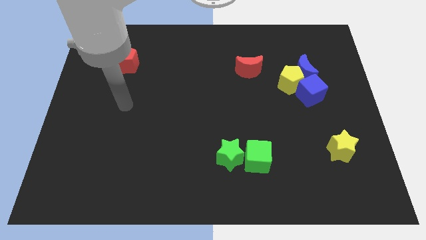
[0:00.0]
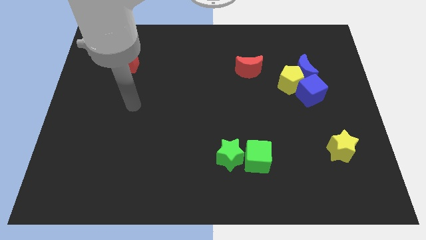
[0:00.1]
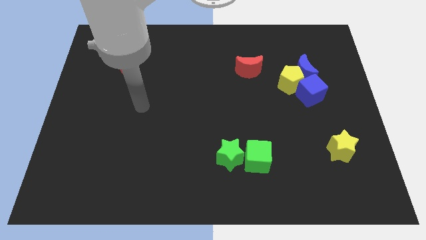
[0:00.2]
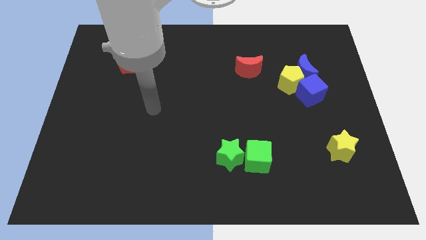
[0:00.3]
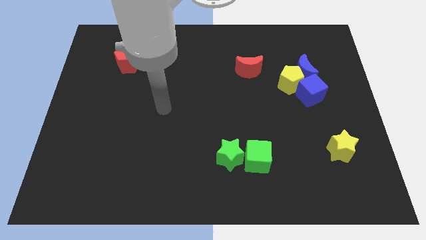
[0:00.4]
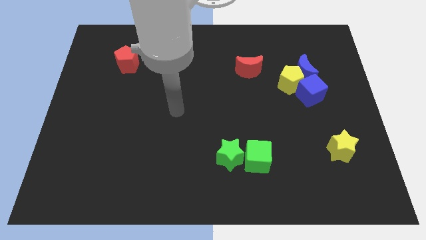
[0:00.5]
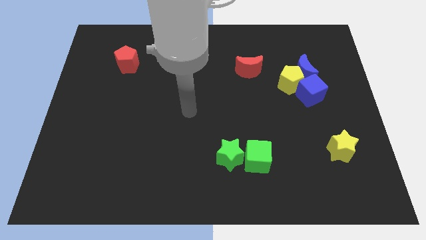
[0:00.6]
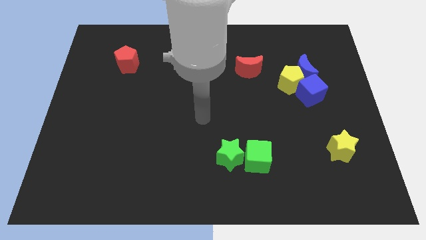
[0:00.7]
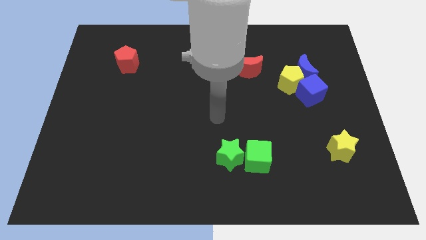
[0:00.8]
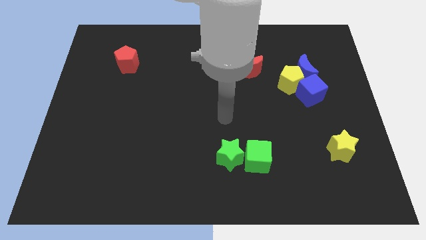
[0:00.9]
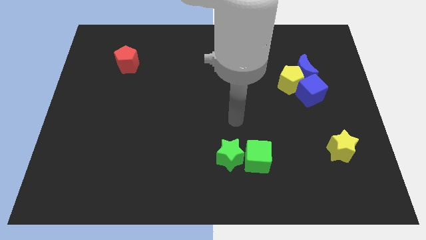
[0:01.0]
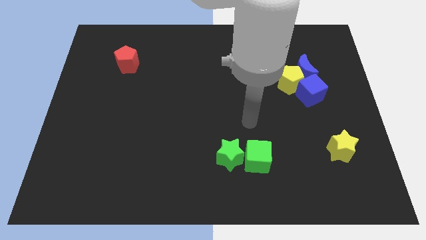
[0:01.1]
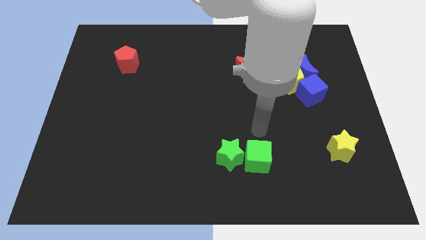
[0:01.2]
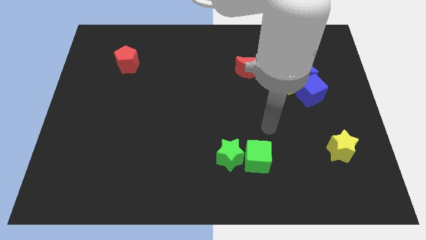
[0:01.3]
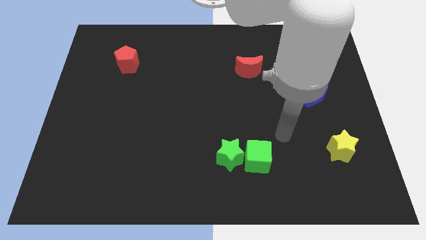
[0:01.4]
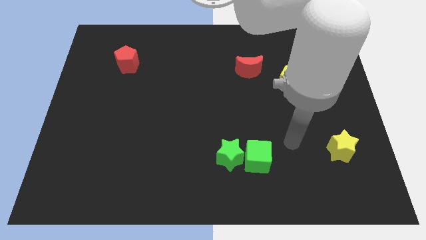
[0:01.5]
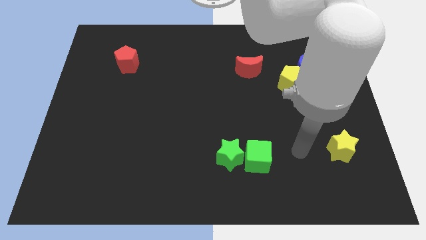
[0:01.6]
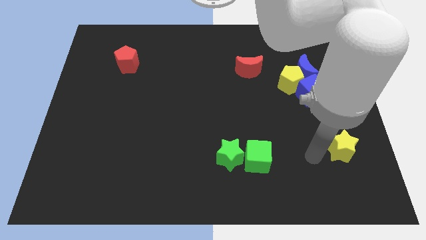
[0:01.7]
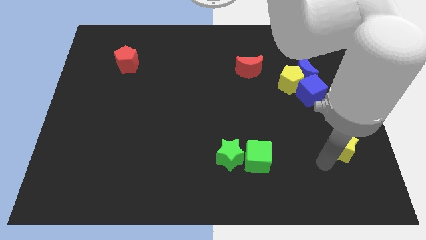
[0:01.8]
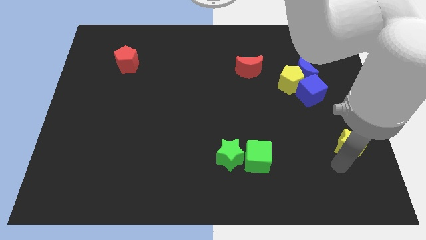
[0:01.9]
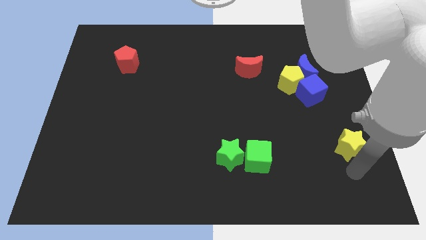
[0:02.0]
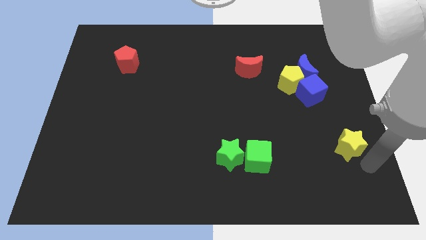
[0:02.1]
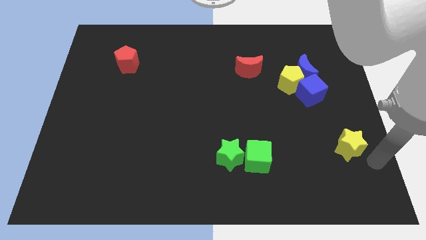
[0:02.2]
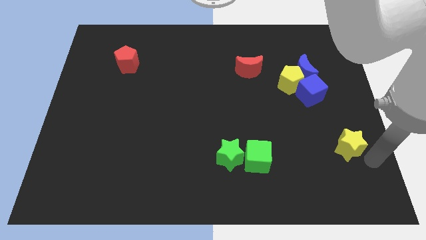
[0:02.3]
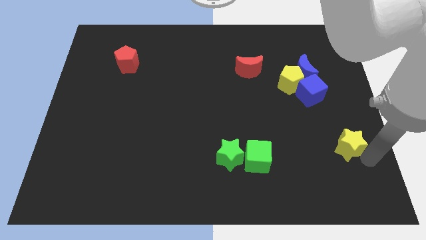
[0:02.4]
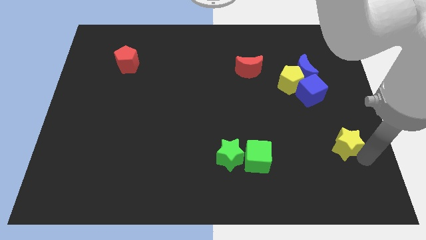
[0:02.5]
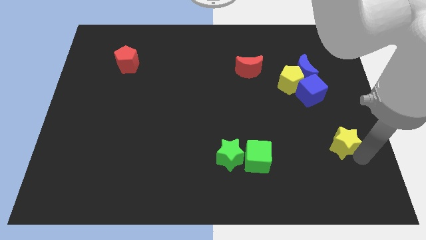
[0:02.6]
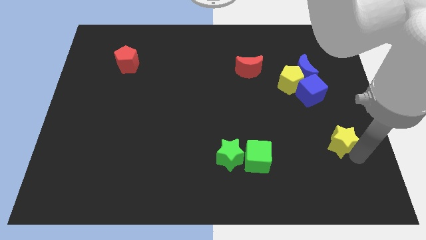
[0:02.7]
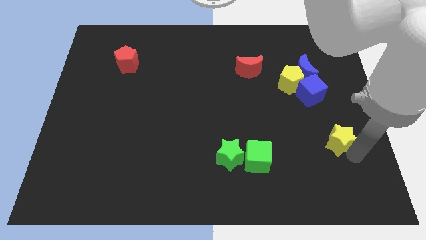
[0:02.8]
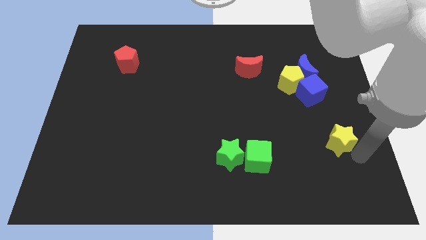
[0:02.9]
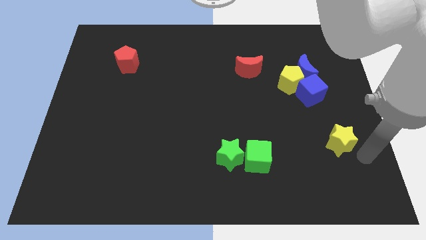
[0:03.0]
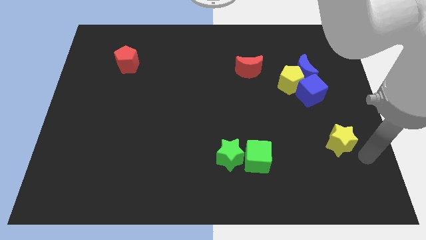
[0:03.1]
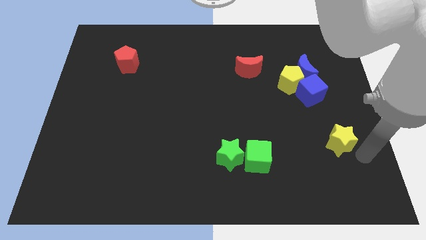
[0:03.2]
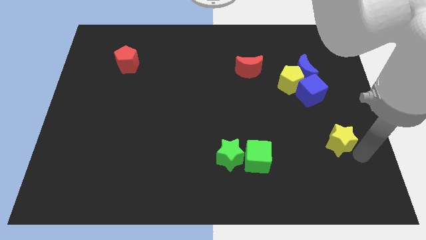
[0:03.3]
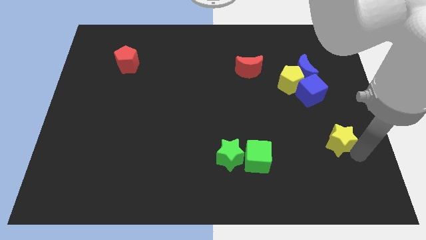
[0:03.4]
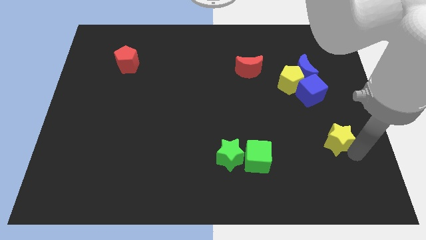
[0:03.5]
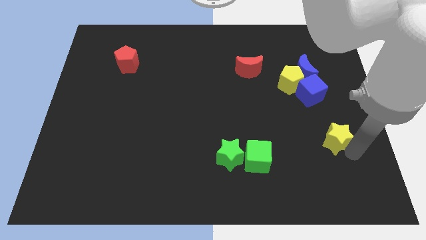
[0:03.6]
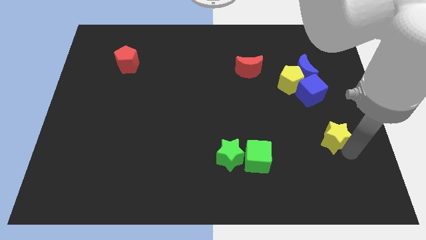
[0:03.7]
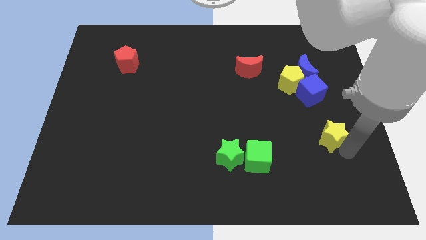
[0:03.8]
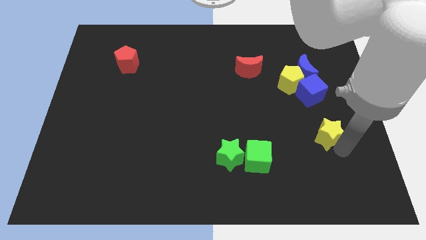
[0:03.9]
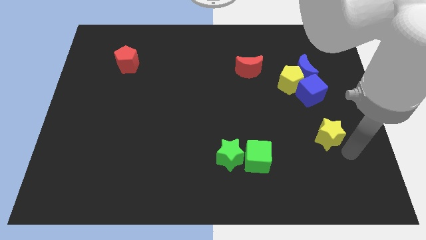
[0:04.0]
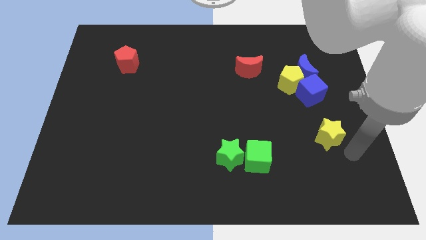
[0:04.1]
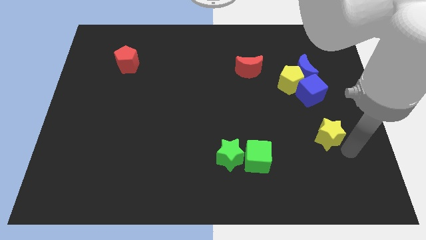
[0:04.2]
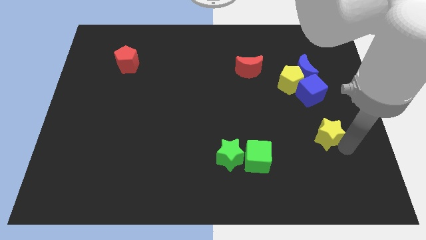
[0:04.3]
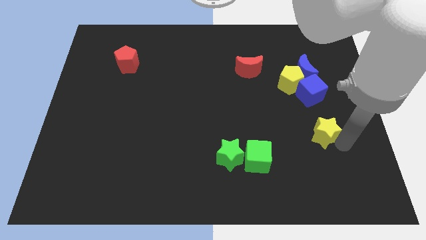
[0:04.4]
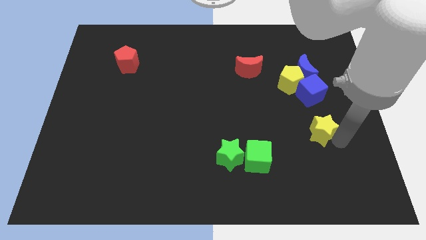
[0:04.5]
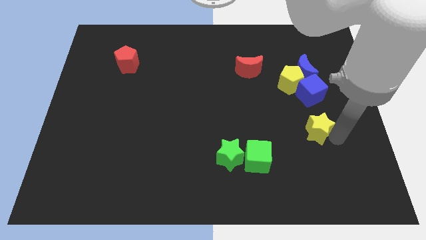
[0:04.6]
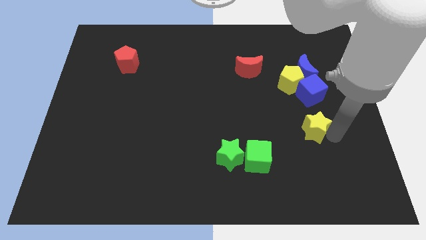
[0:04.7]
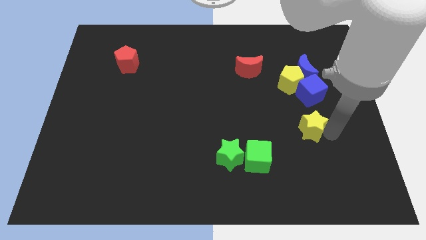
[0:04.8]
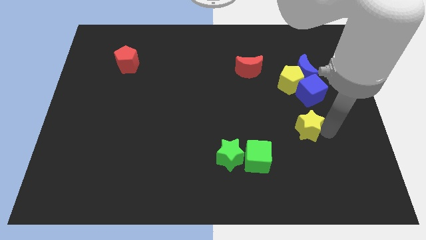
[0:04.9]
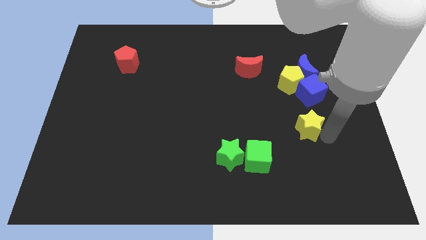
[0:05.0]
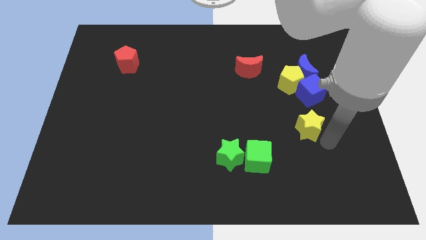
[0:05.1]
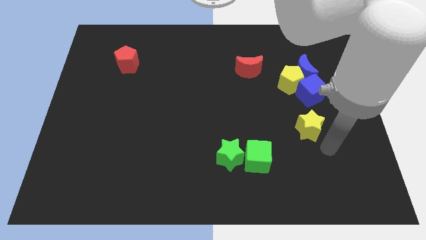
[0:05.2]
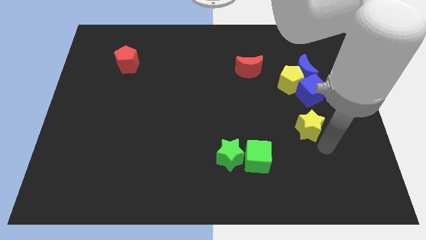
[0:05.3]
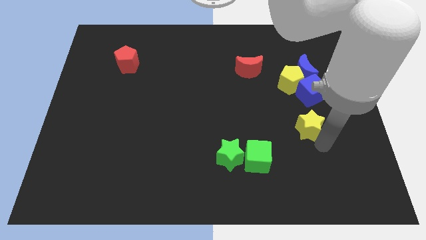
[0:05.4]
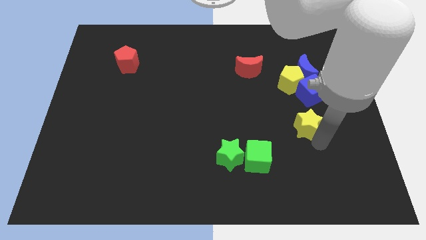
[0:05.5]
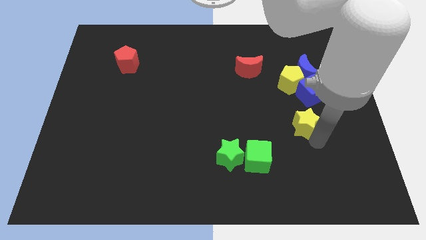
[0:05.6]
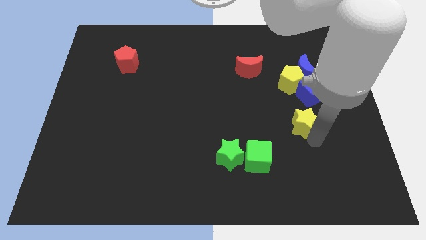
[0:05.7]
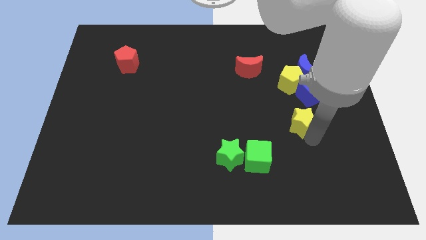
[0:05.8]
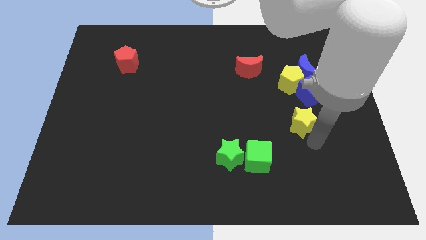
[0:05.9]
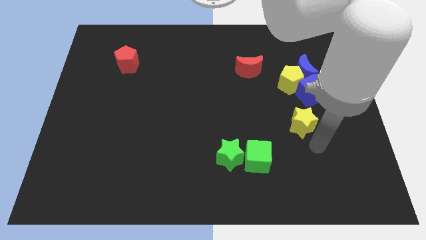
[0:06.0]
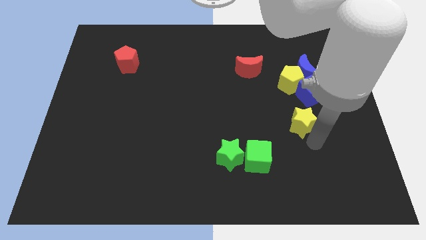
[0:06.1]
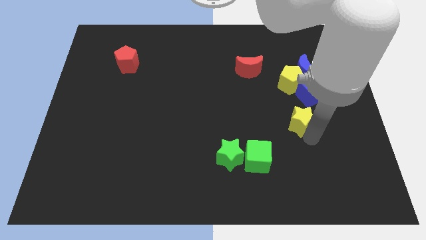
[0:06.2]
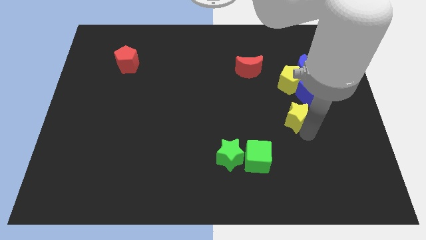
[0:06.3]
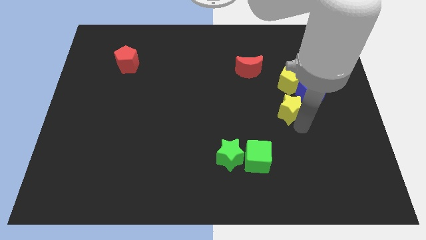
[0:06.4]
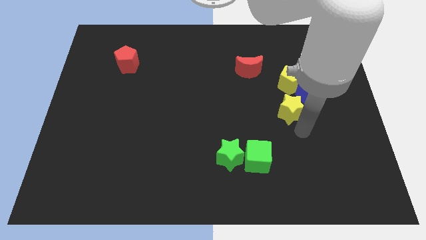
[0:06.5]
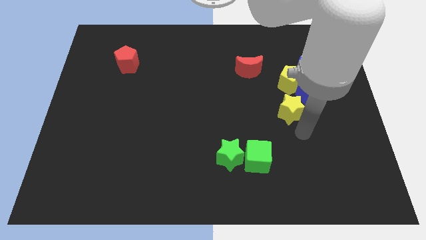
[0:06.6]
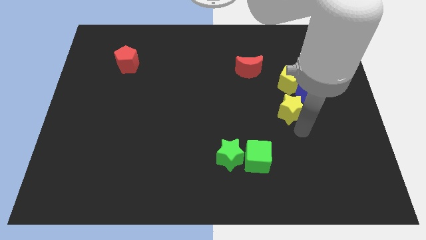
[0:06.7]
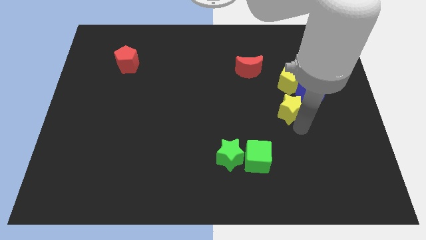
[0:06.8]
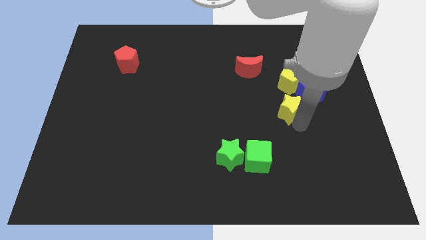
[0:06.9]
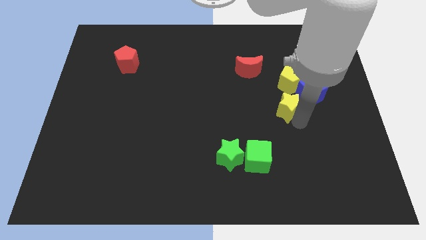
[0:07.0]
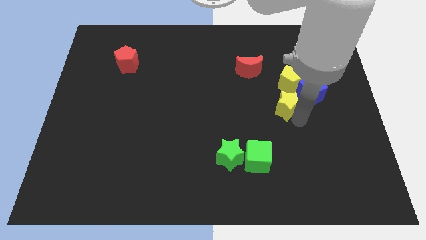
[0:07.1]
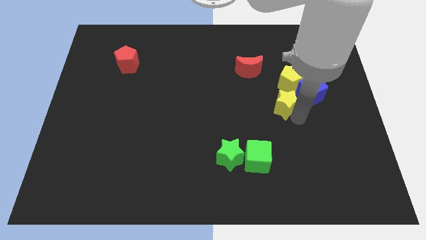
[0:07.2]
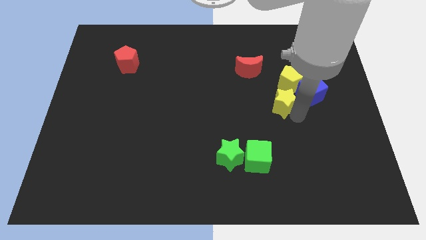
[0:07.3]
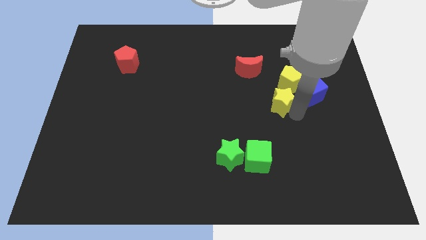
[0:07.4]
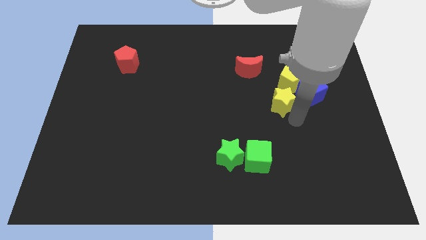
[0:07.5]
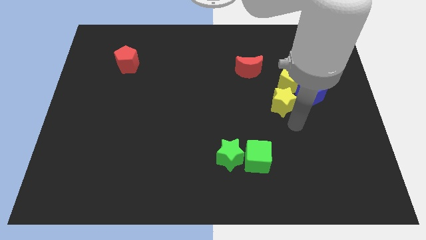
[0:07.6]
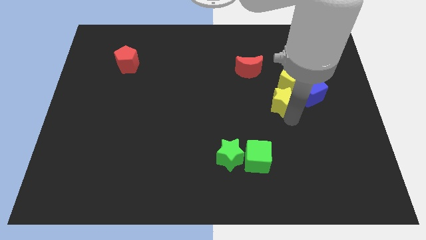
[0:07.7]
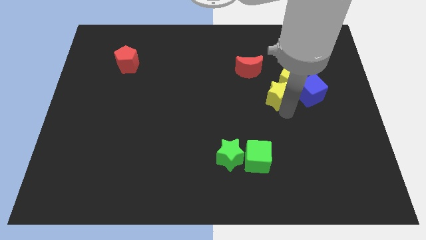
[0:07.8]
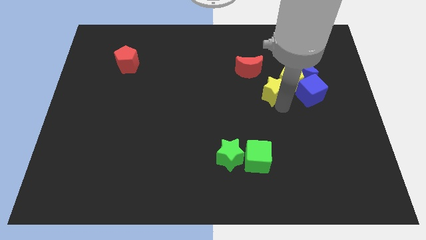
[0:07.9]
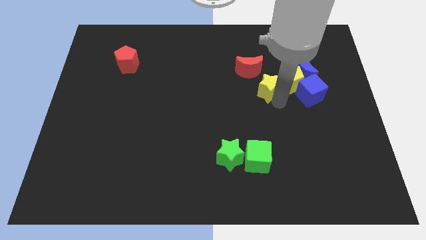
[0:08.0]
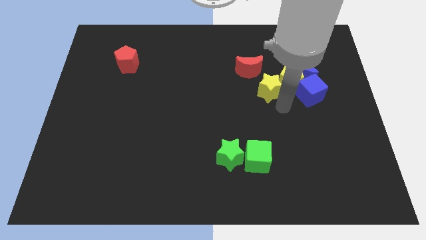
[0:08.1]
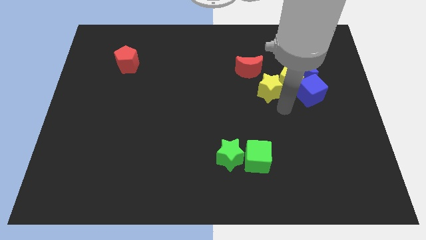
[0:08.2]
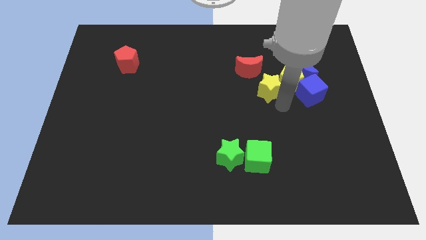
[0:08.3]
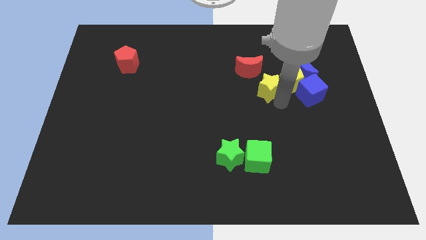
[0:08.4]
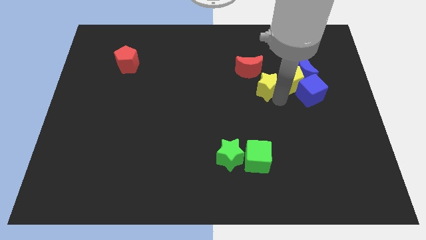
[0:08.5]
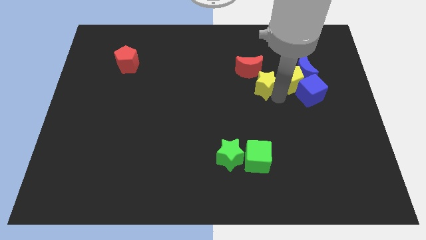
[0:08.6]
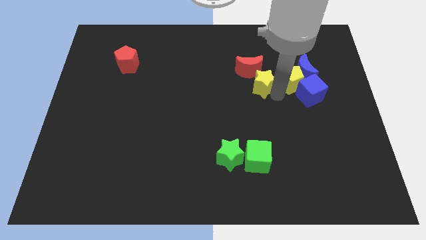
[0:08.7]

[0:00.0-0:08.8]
put the yellow star towards the red moon
